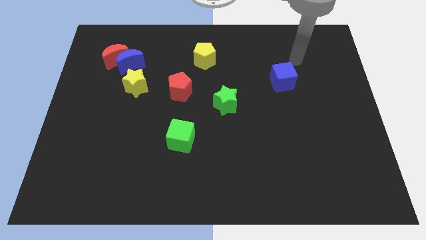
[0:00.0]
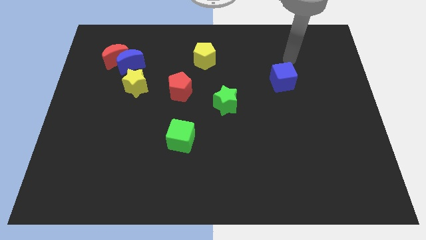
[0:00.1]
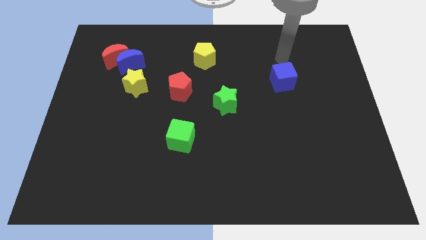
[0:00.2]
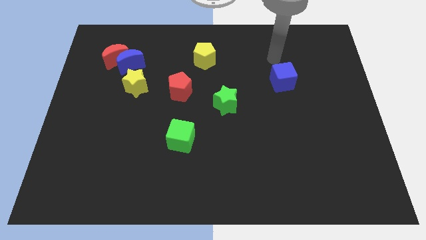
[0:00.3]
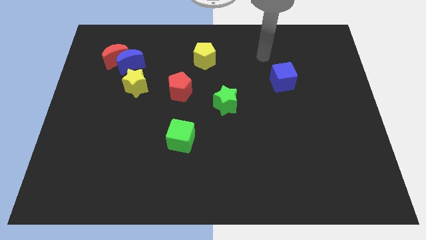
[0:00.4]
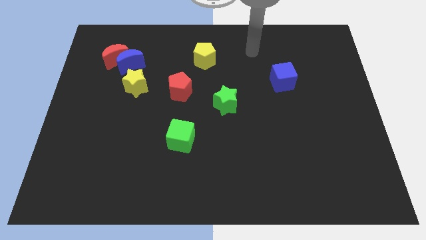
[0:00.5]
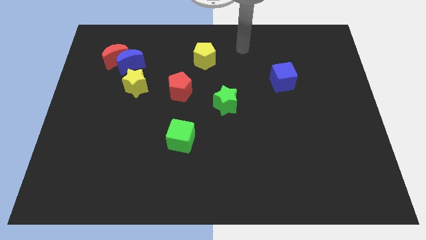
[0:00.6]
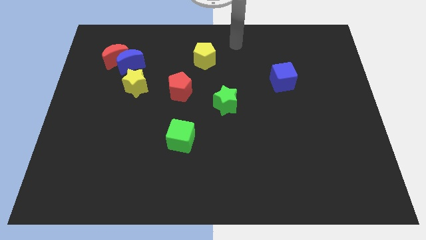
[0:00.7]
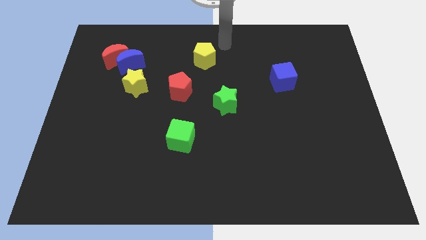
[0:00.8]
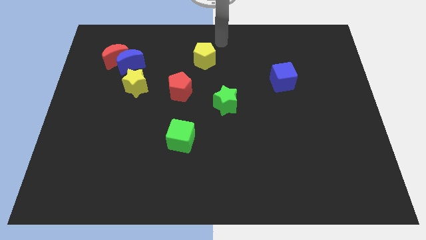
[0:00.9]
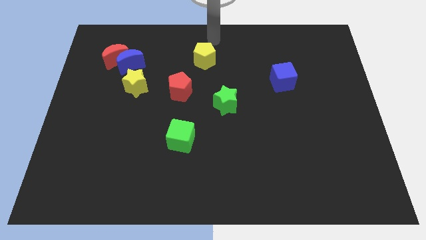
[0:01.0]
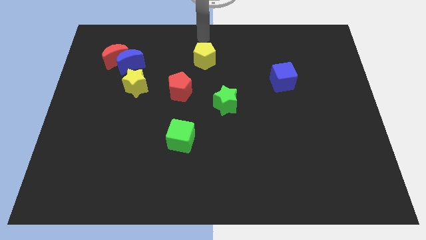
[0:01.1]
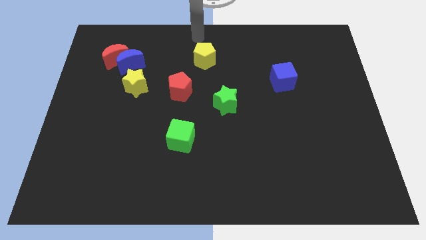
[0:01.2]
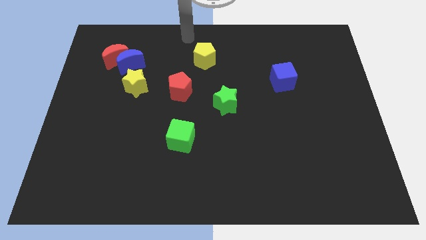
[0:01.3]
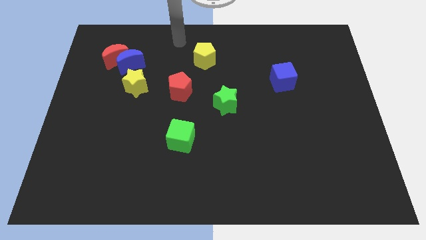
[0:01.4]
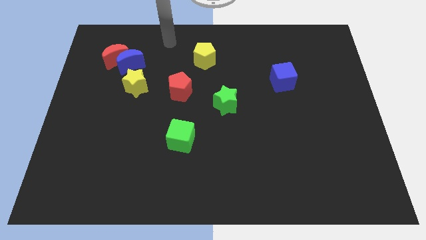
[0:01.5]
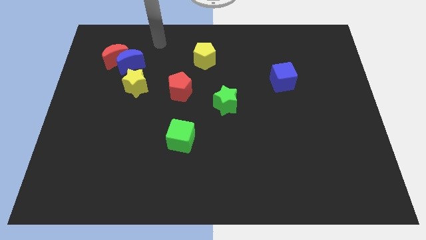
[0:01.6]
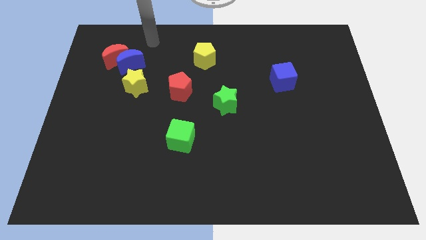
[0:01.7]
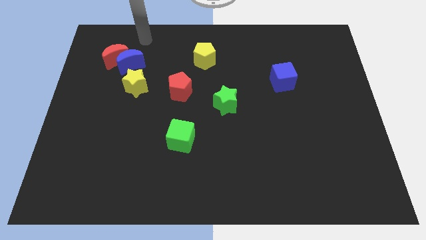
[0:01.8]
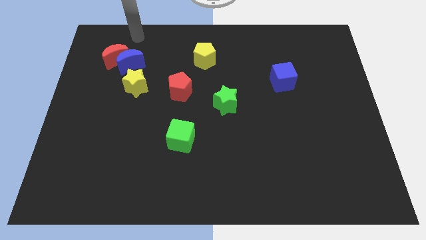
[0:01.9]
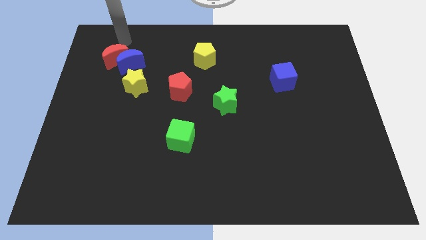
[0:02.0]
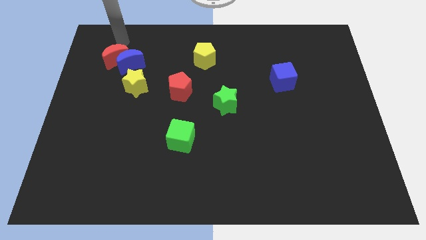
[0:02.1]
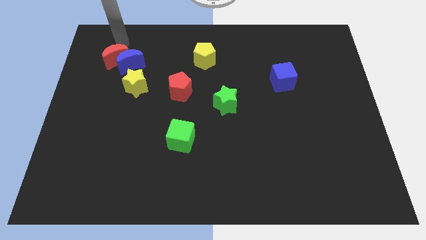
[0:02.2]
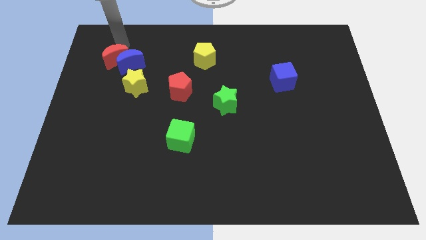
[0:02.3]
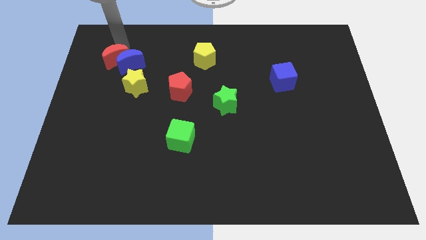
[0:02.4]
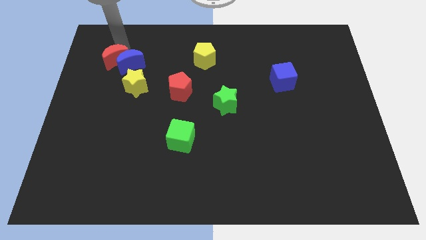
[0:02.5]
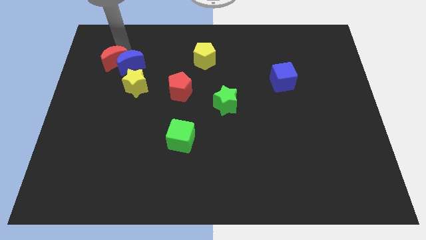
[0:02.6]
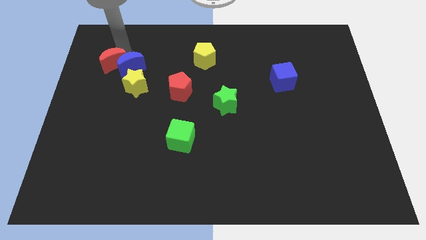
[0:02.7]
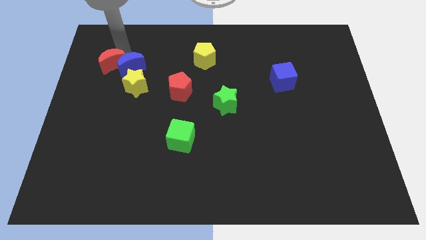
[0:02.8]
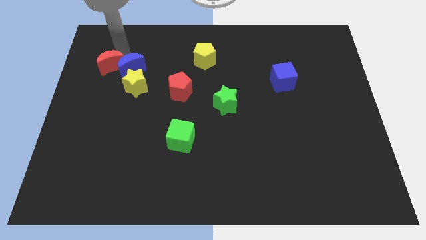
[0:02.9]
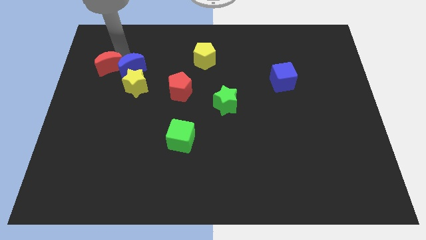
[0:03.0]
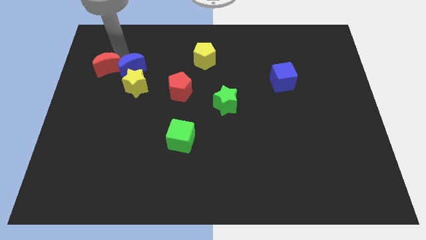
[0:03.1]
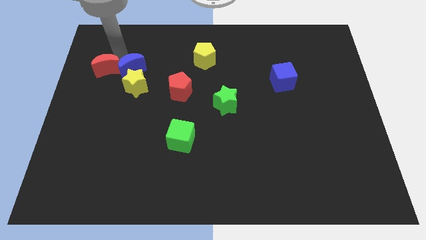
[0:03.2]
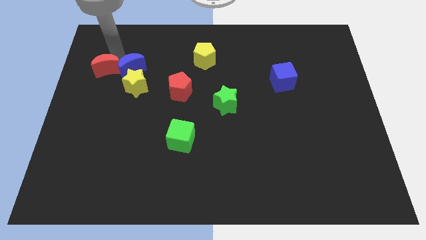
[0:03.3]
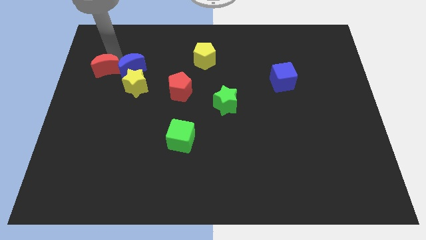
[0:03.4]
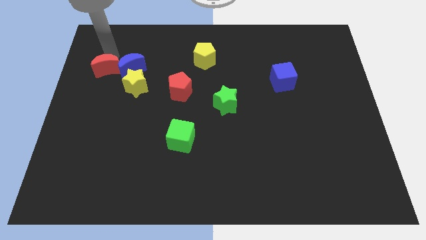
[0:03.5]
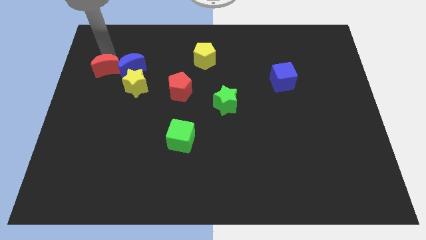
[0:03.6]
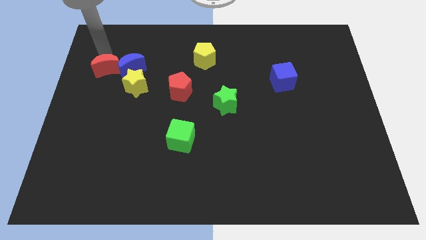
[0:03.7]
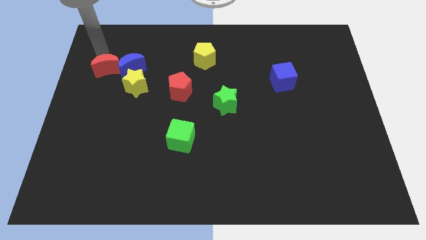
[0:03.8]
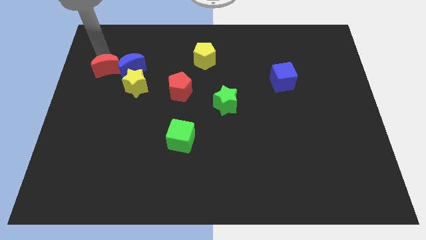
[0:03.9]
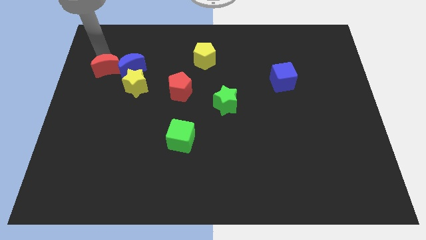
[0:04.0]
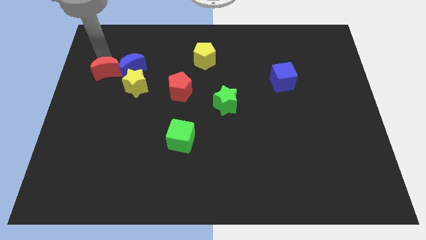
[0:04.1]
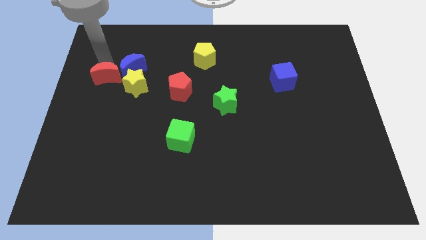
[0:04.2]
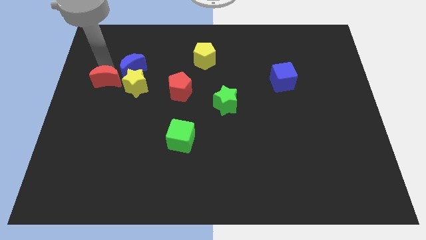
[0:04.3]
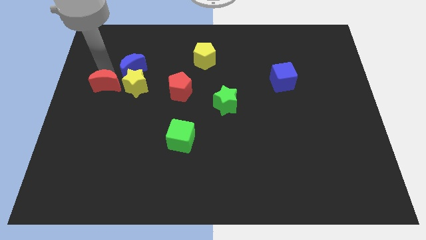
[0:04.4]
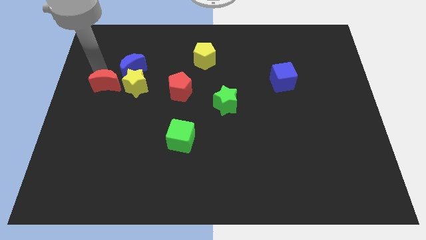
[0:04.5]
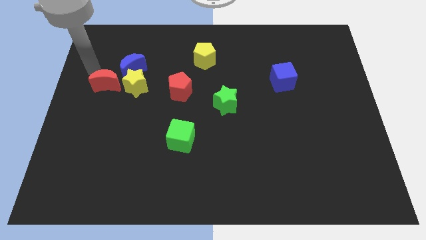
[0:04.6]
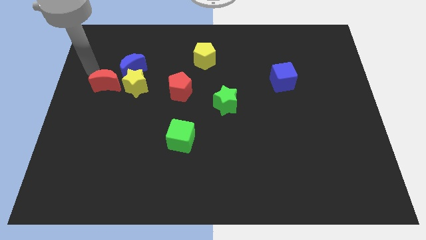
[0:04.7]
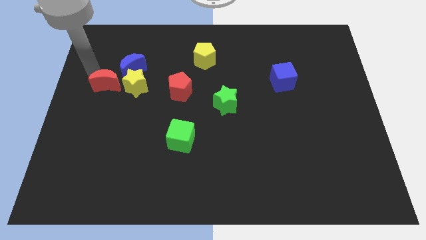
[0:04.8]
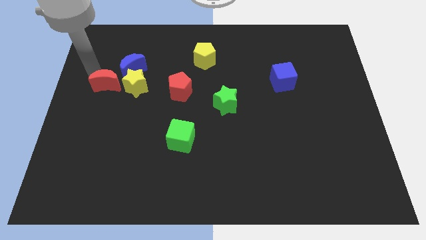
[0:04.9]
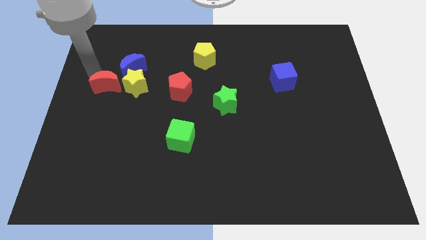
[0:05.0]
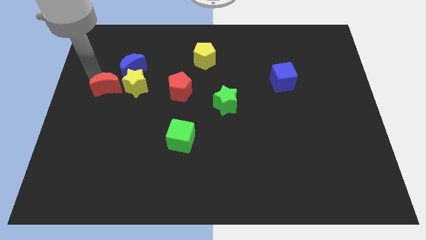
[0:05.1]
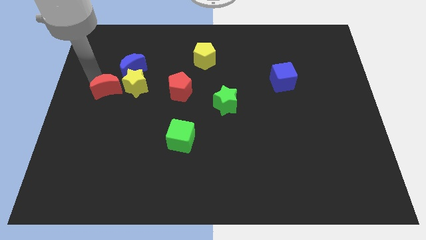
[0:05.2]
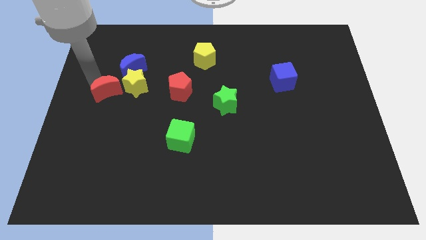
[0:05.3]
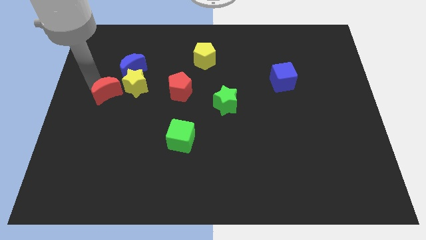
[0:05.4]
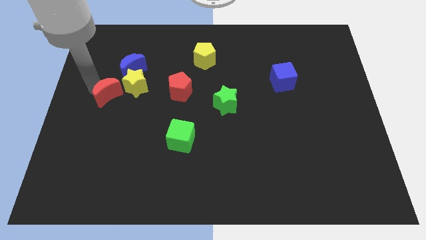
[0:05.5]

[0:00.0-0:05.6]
move the red moon to the bottom of the blue moon

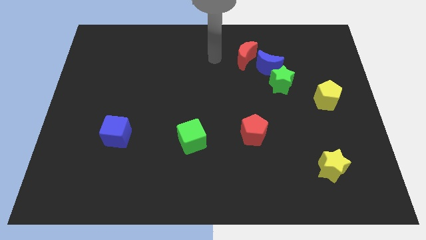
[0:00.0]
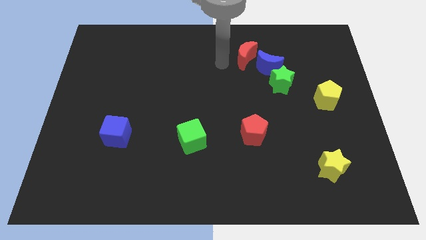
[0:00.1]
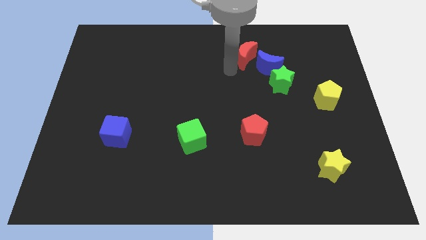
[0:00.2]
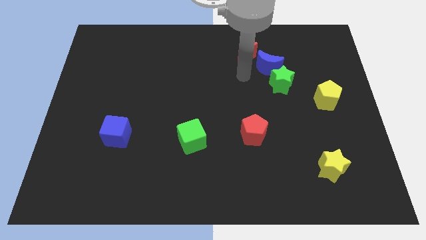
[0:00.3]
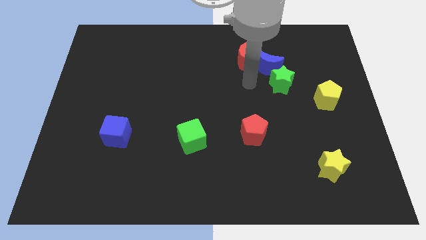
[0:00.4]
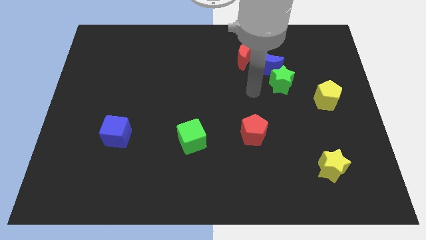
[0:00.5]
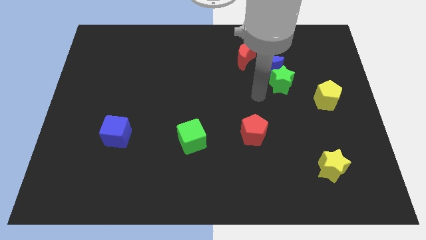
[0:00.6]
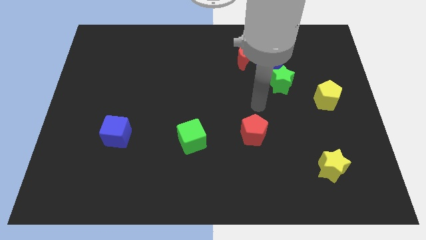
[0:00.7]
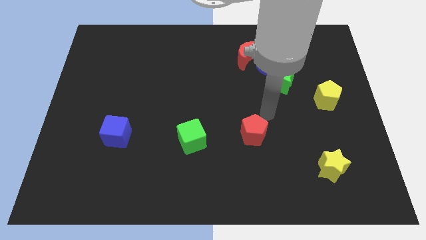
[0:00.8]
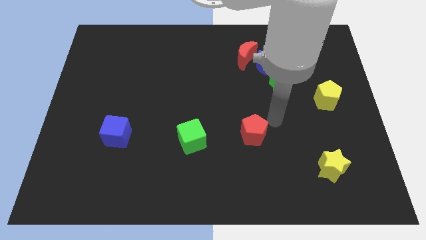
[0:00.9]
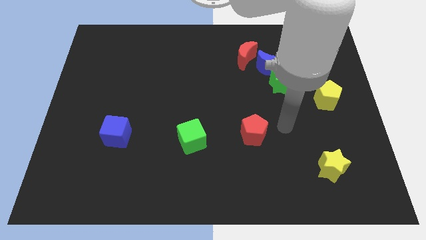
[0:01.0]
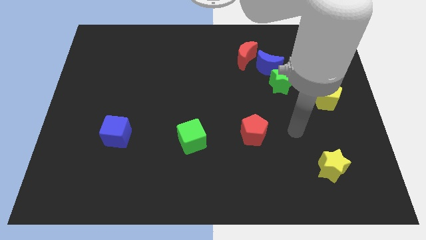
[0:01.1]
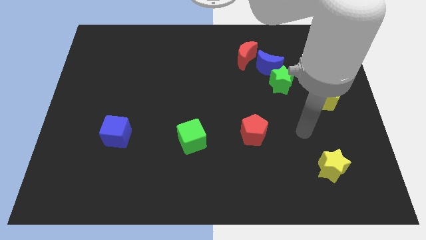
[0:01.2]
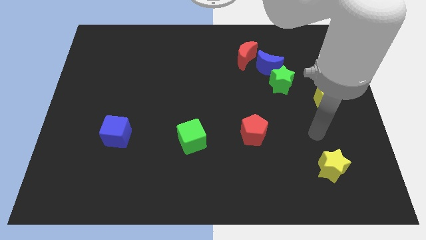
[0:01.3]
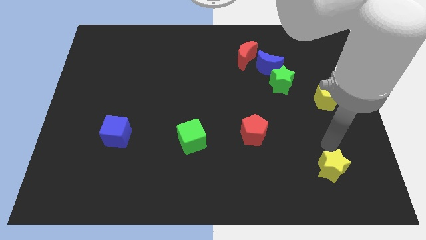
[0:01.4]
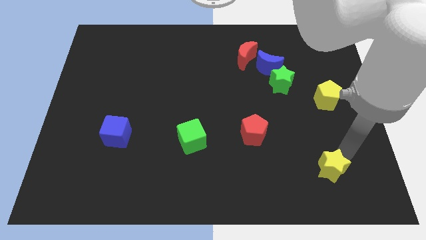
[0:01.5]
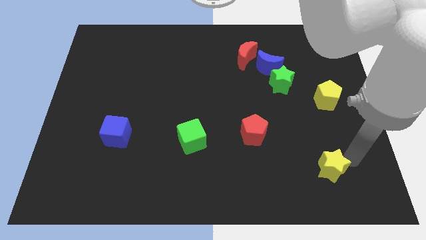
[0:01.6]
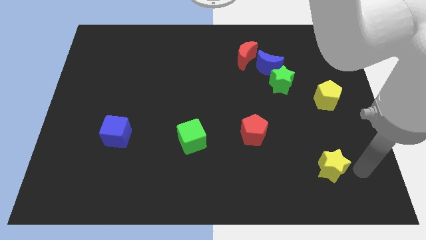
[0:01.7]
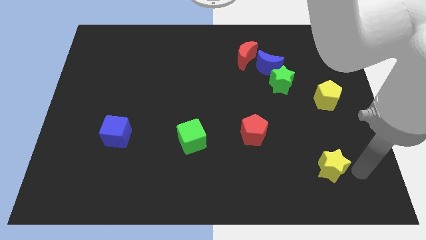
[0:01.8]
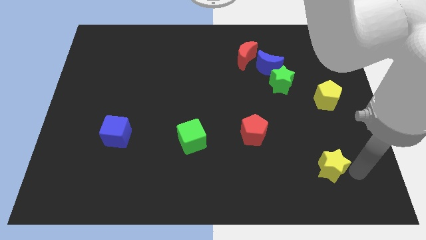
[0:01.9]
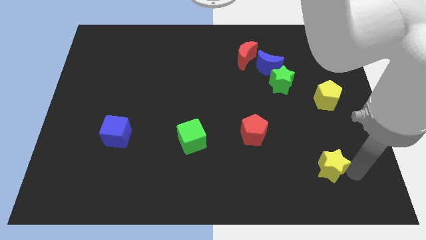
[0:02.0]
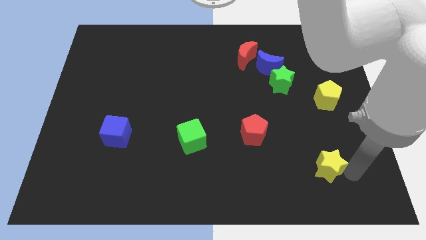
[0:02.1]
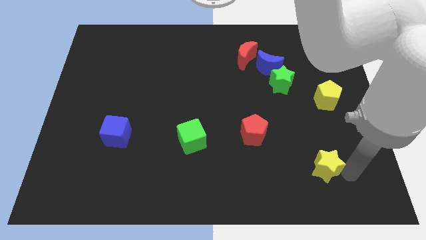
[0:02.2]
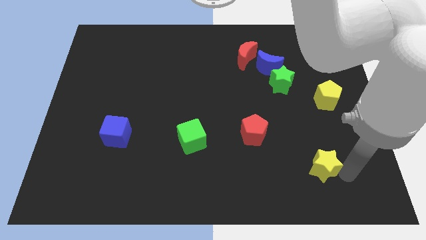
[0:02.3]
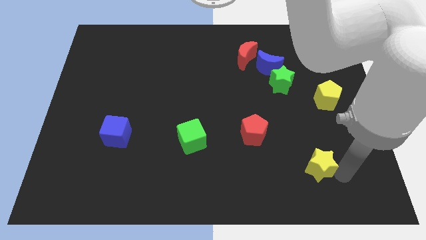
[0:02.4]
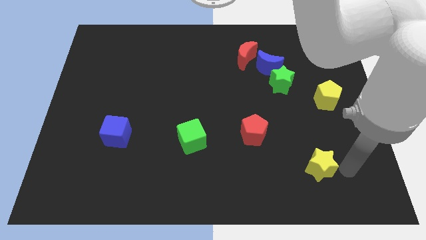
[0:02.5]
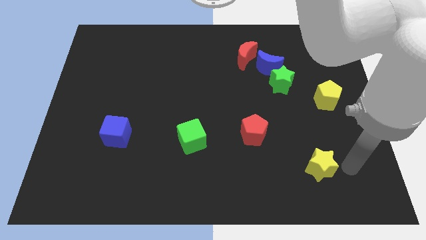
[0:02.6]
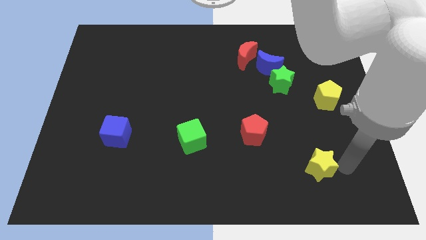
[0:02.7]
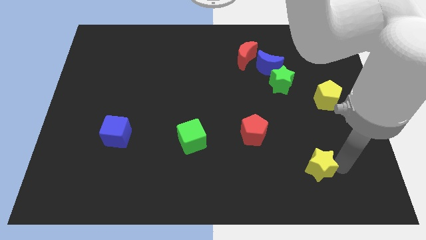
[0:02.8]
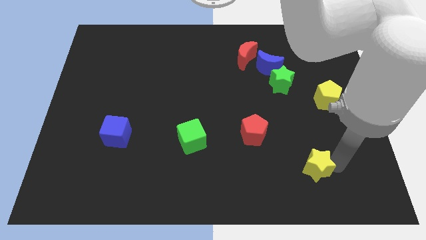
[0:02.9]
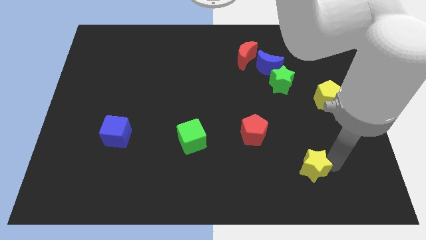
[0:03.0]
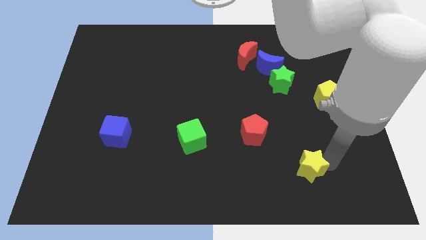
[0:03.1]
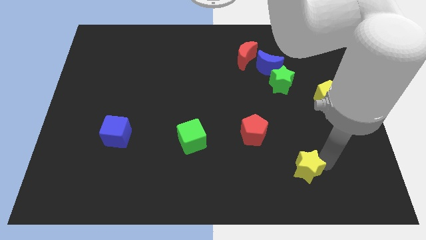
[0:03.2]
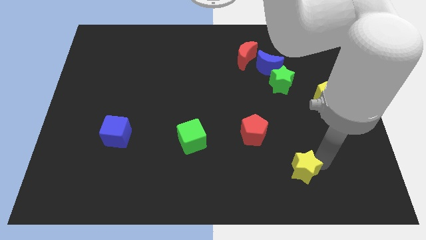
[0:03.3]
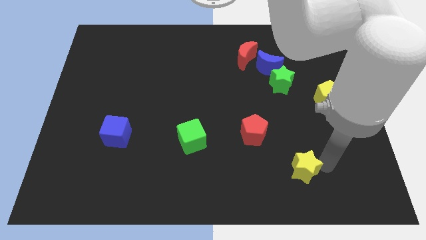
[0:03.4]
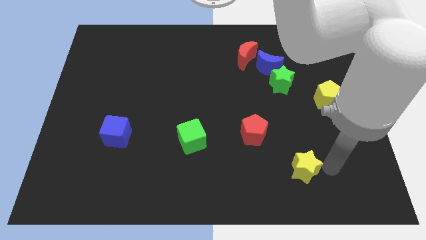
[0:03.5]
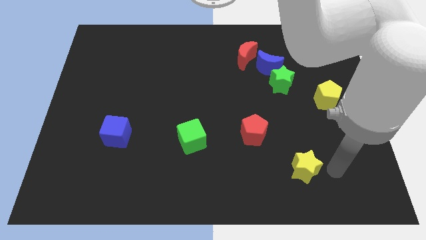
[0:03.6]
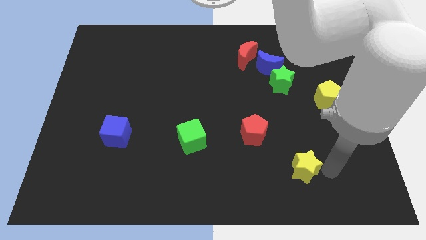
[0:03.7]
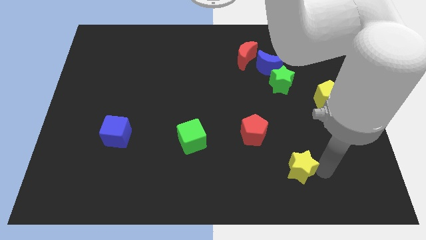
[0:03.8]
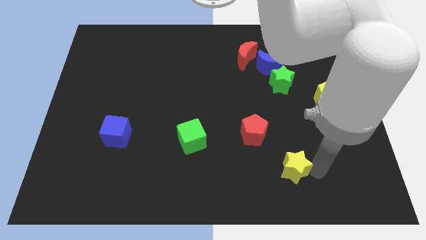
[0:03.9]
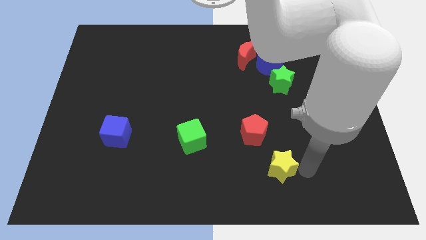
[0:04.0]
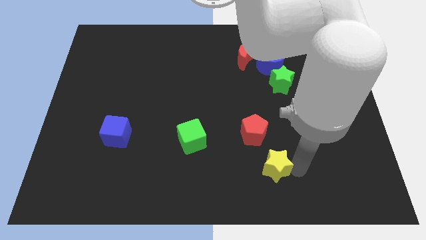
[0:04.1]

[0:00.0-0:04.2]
move the yellow star to the bottom of the red pentagon
